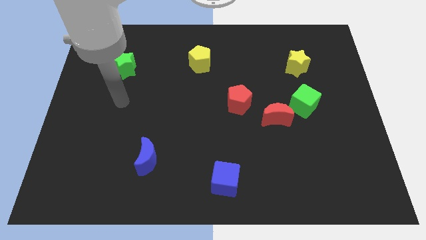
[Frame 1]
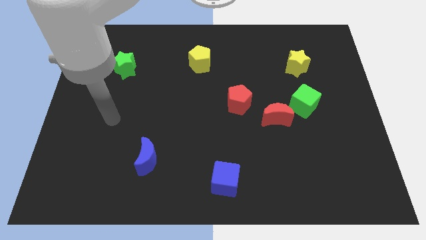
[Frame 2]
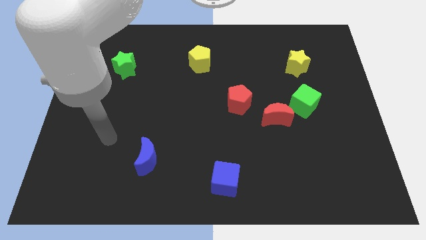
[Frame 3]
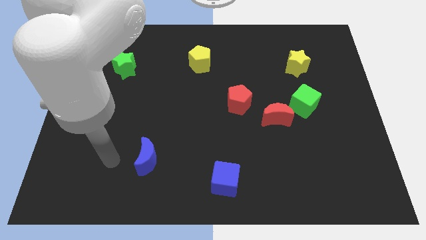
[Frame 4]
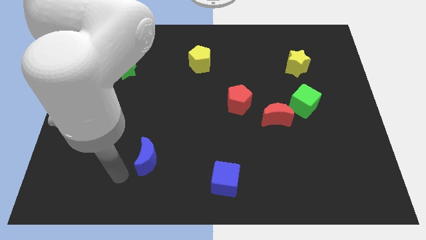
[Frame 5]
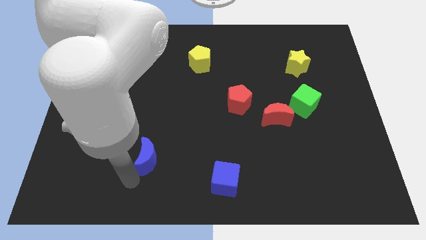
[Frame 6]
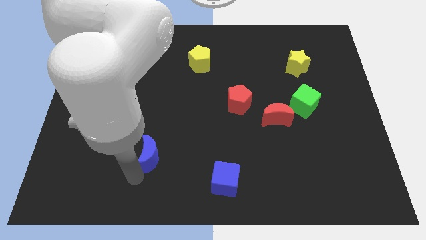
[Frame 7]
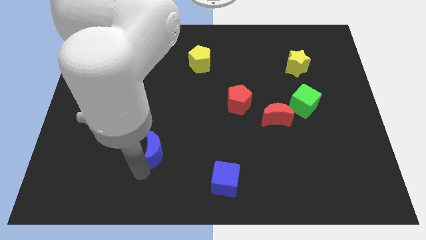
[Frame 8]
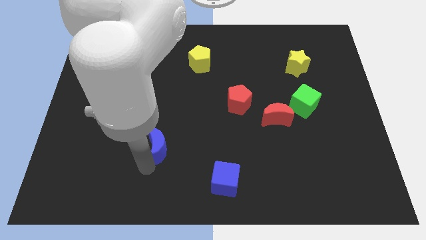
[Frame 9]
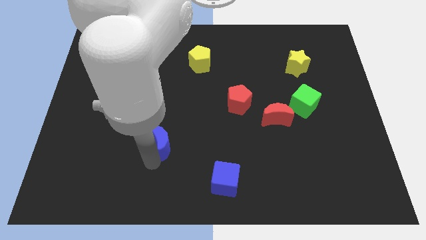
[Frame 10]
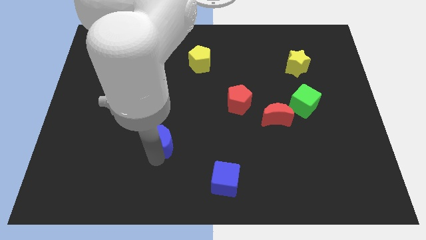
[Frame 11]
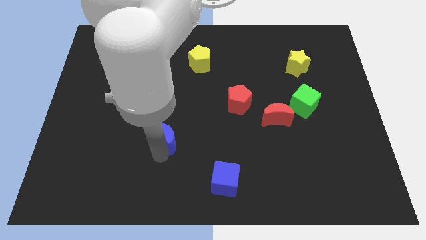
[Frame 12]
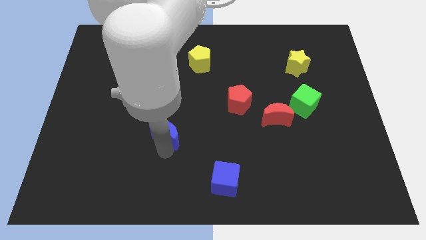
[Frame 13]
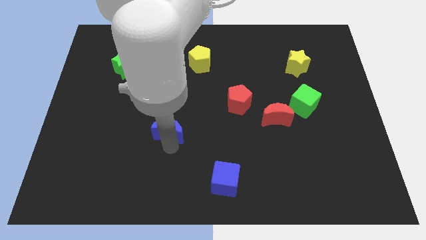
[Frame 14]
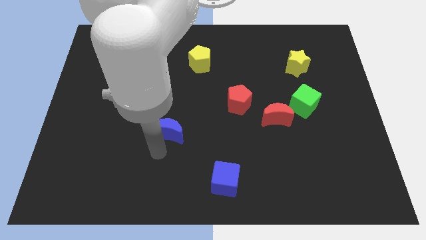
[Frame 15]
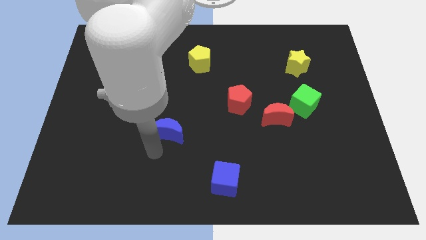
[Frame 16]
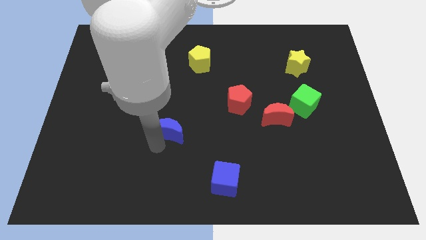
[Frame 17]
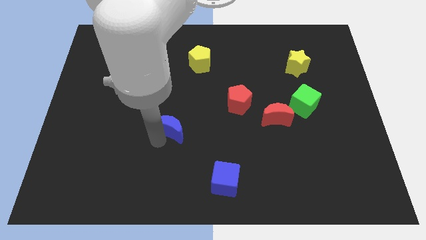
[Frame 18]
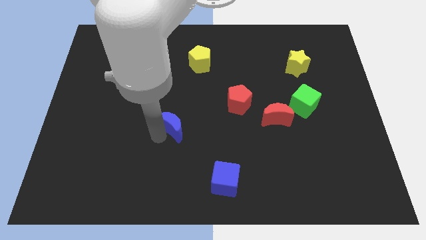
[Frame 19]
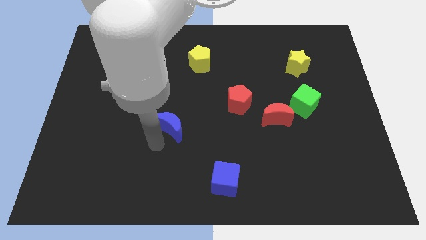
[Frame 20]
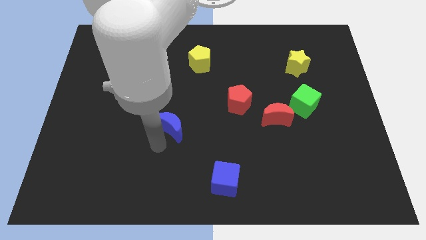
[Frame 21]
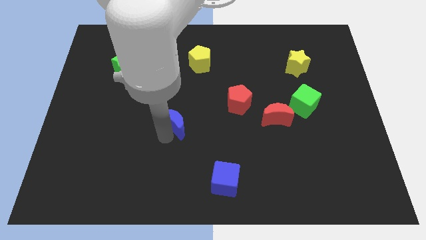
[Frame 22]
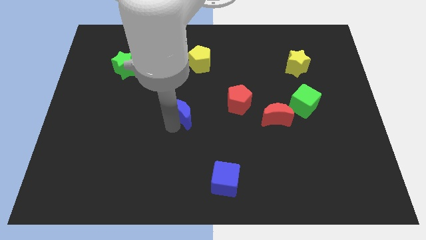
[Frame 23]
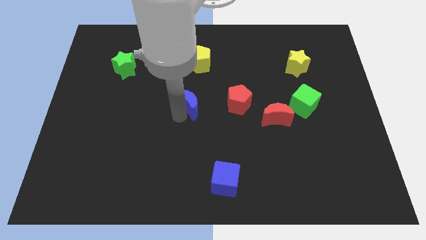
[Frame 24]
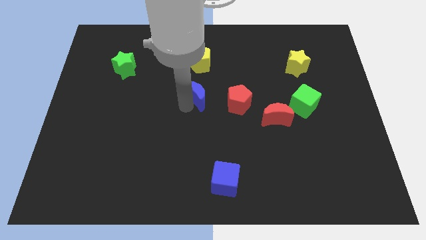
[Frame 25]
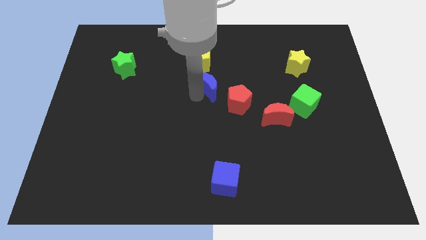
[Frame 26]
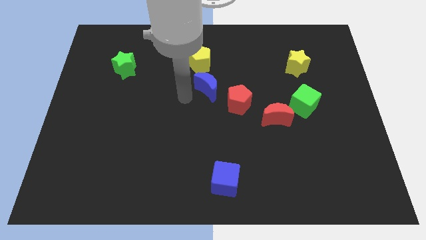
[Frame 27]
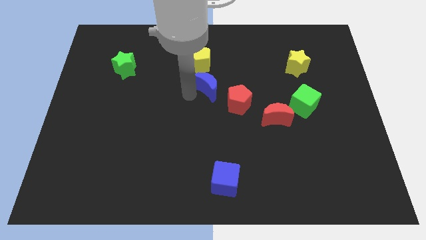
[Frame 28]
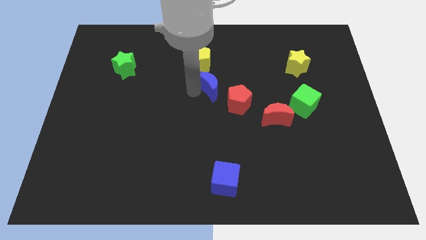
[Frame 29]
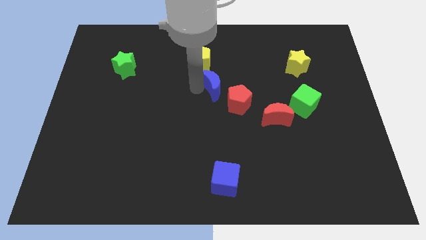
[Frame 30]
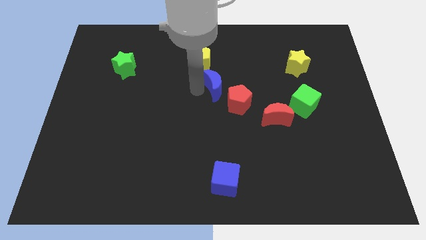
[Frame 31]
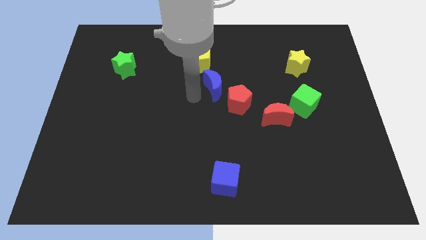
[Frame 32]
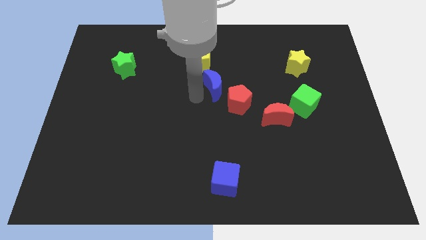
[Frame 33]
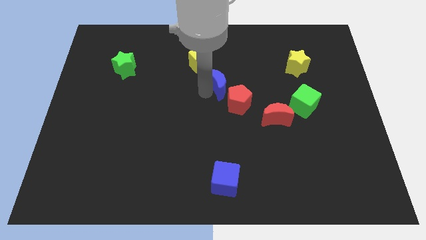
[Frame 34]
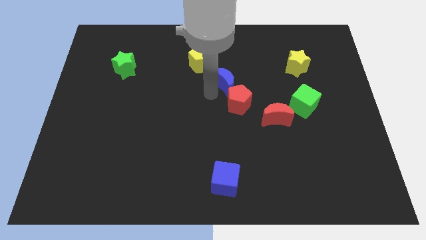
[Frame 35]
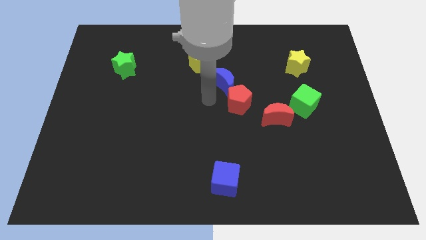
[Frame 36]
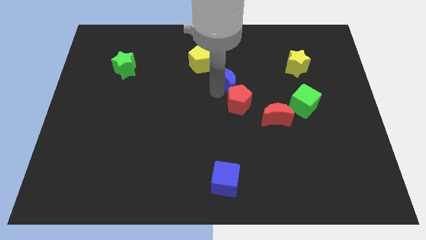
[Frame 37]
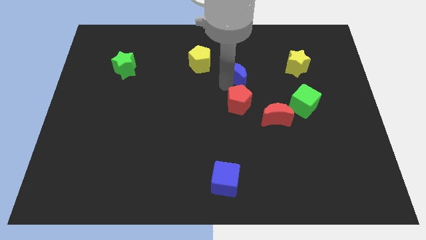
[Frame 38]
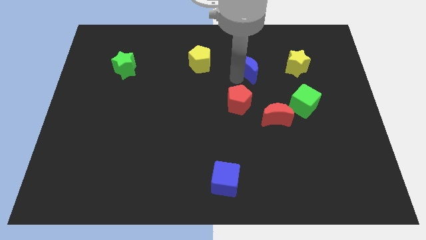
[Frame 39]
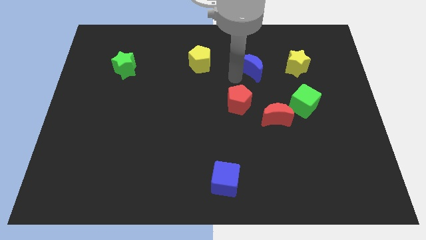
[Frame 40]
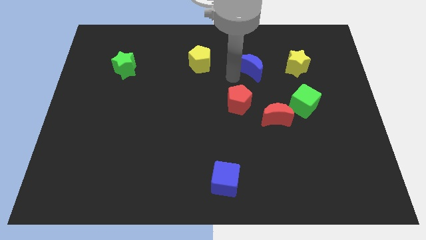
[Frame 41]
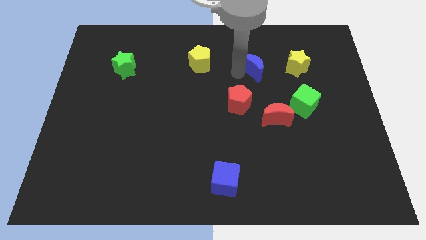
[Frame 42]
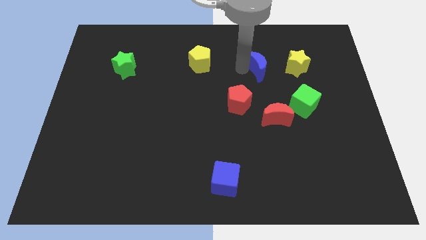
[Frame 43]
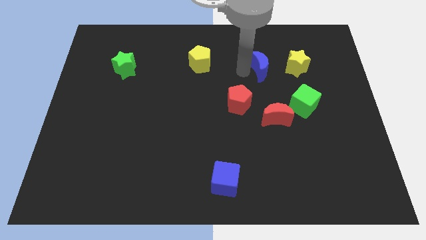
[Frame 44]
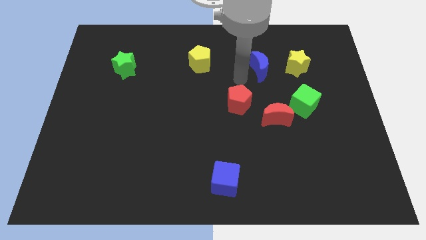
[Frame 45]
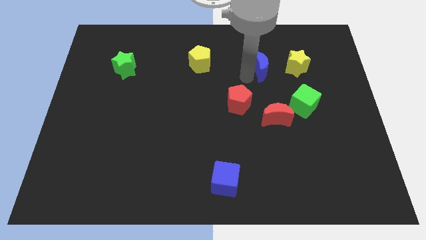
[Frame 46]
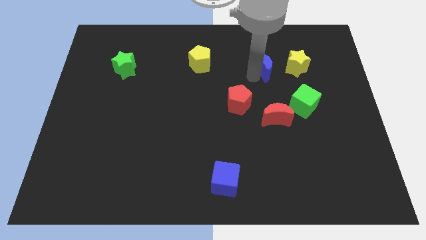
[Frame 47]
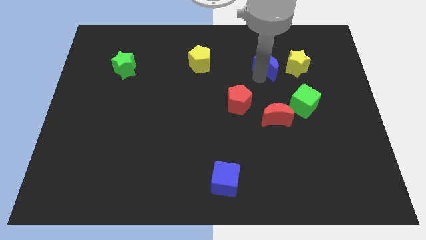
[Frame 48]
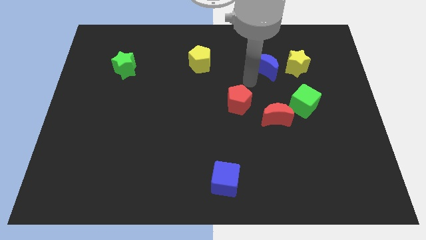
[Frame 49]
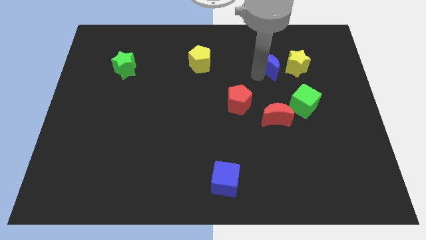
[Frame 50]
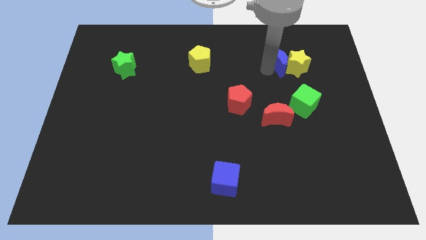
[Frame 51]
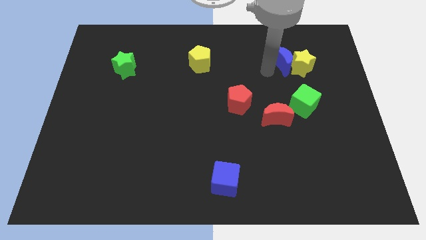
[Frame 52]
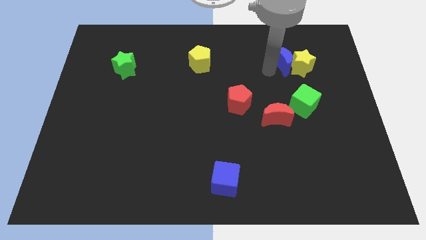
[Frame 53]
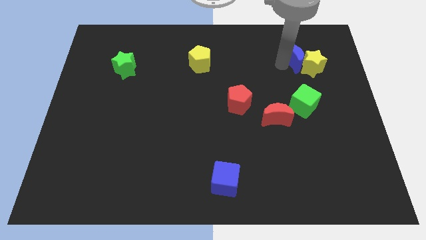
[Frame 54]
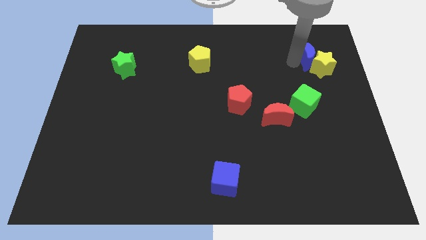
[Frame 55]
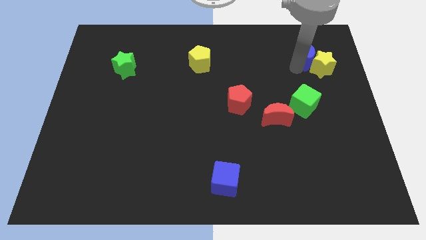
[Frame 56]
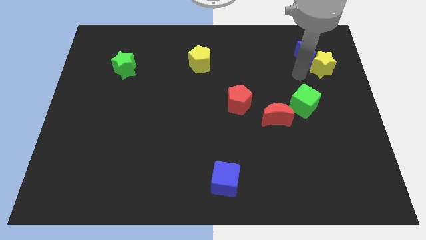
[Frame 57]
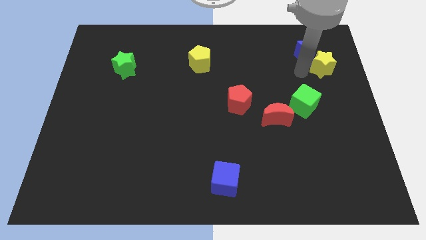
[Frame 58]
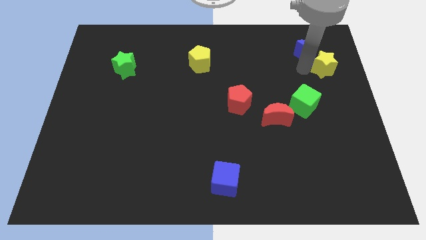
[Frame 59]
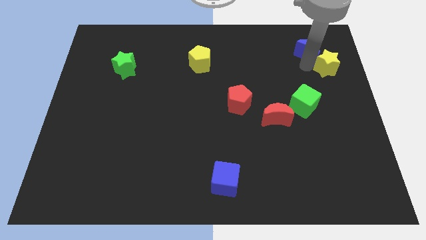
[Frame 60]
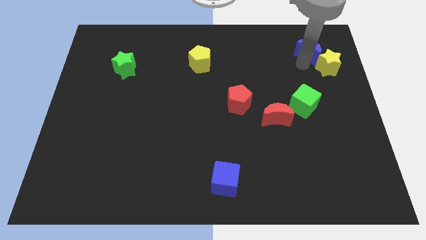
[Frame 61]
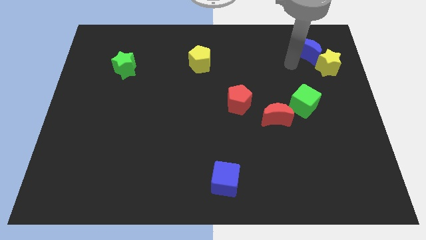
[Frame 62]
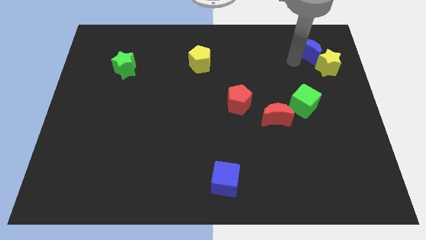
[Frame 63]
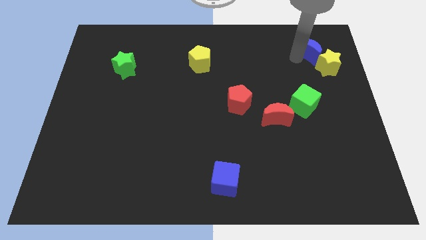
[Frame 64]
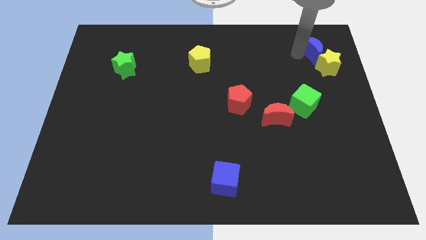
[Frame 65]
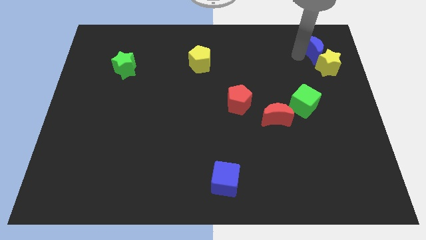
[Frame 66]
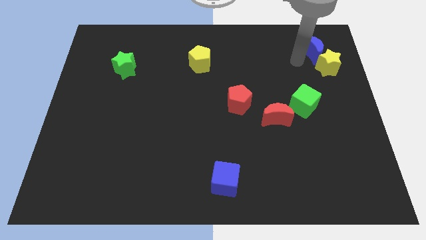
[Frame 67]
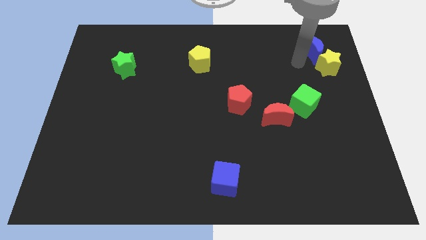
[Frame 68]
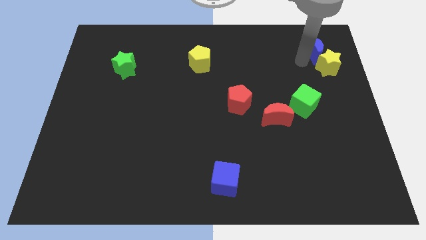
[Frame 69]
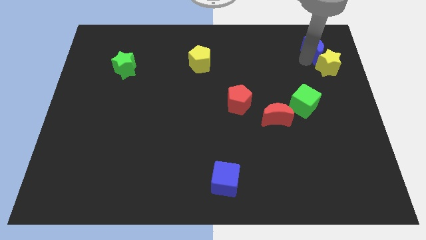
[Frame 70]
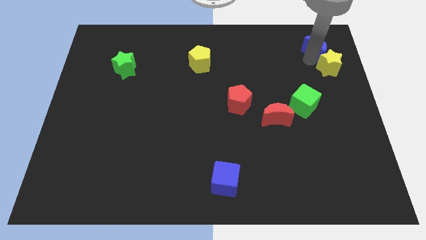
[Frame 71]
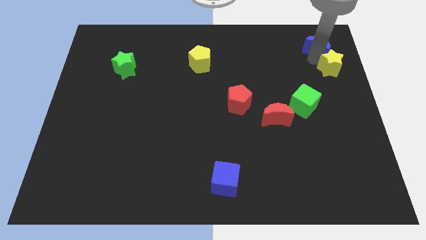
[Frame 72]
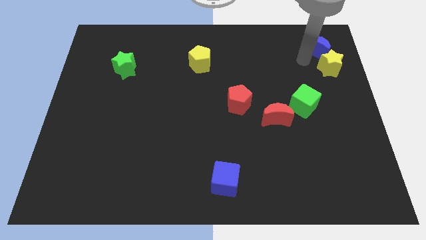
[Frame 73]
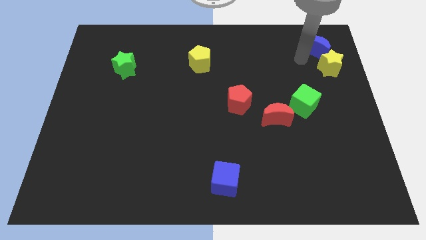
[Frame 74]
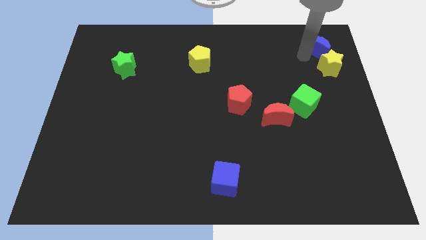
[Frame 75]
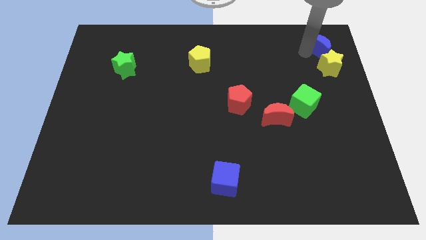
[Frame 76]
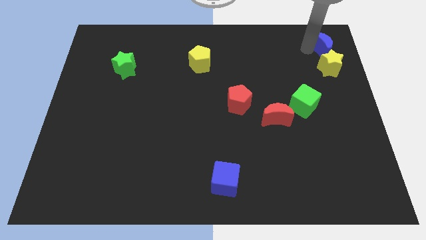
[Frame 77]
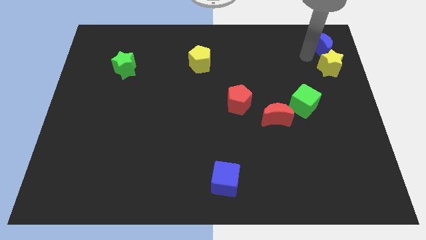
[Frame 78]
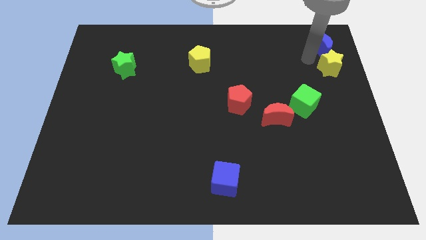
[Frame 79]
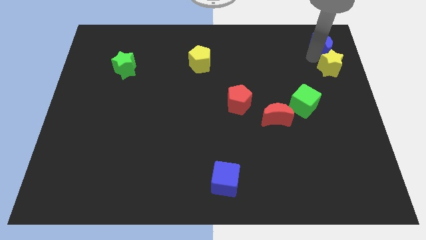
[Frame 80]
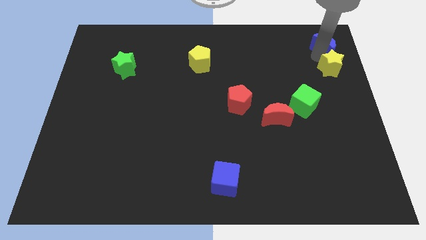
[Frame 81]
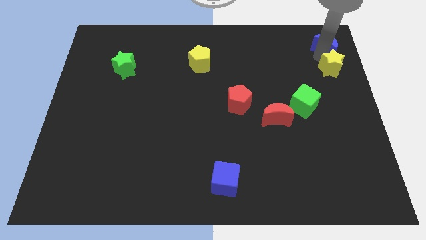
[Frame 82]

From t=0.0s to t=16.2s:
move the blue moon to the top right corner
